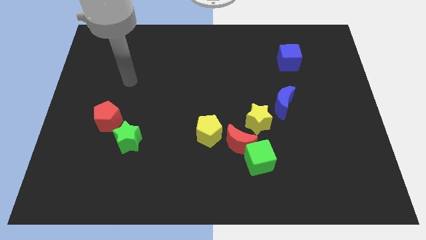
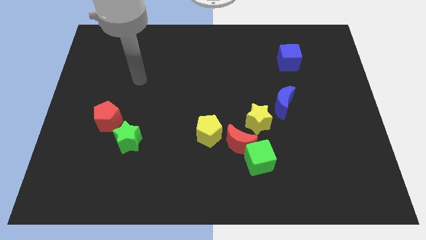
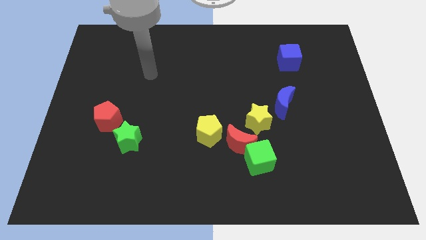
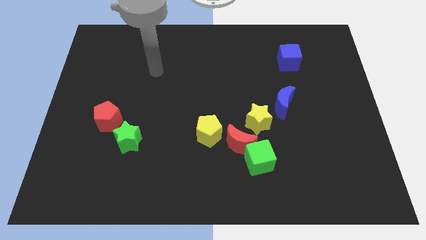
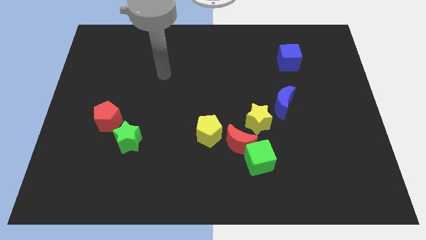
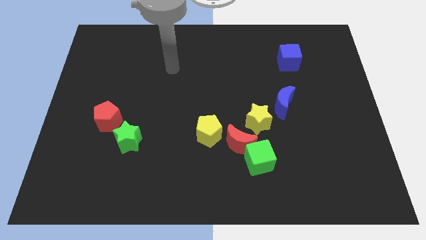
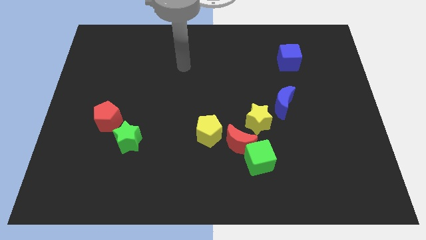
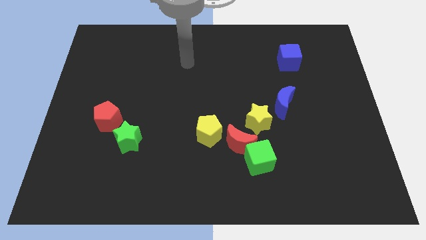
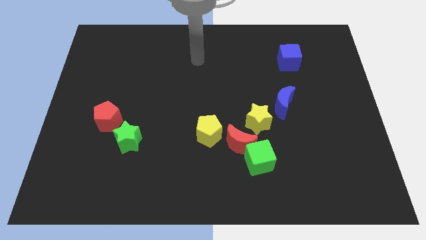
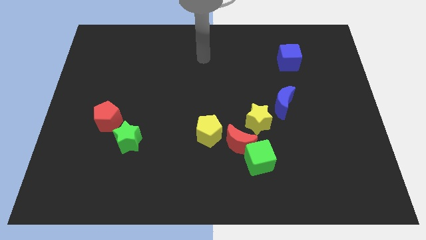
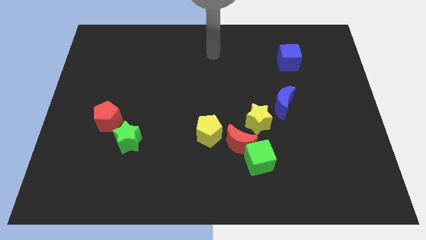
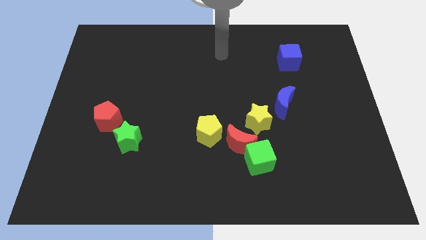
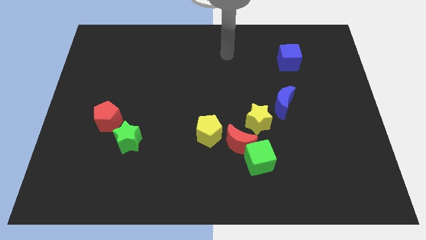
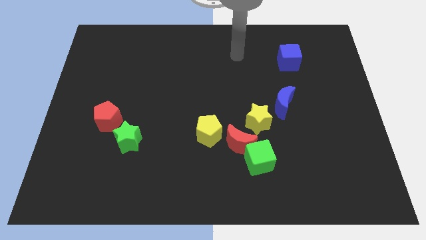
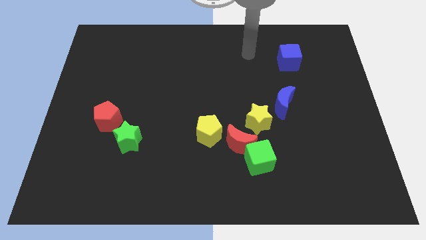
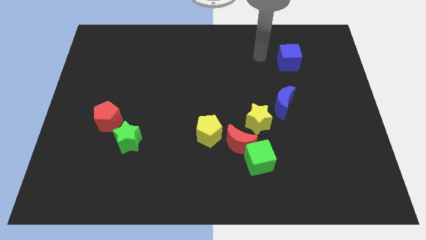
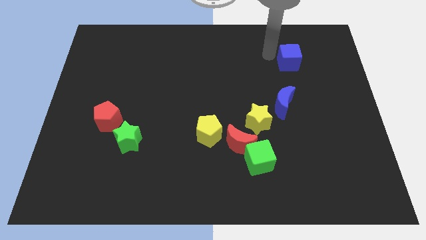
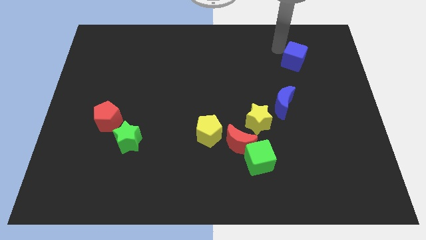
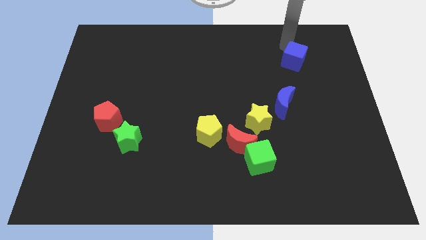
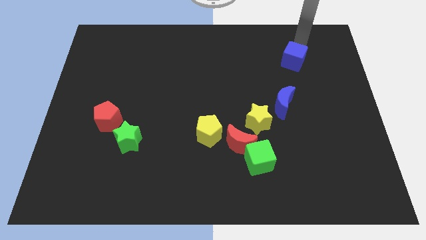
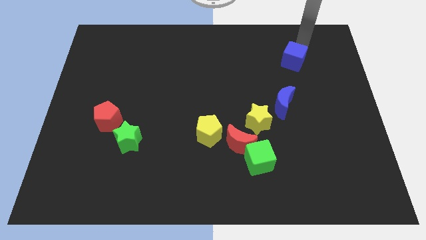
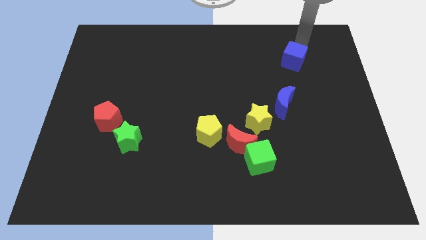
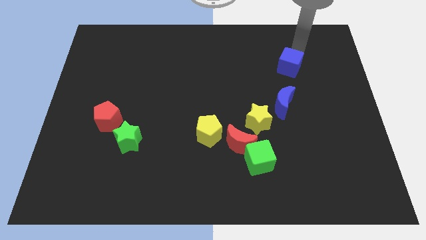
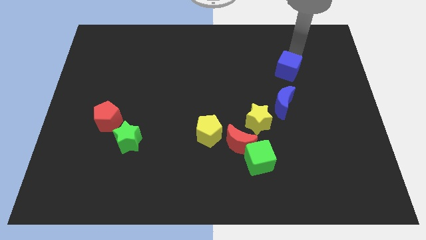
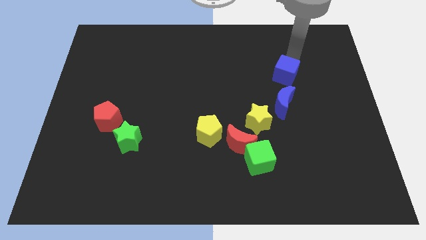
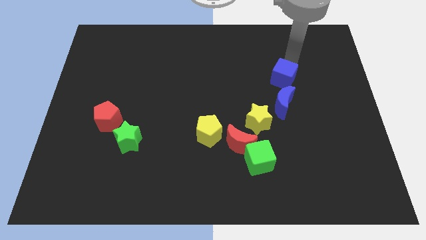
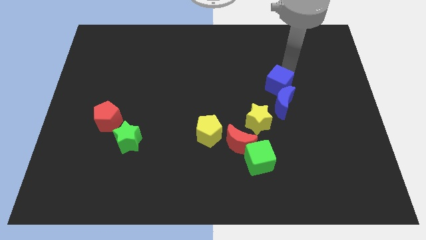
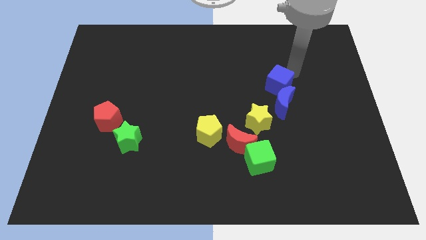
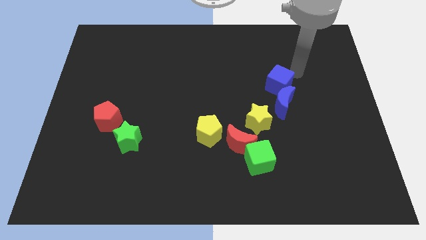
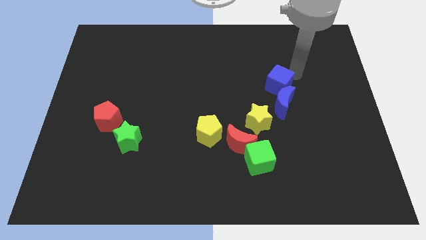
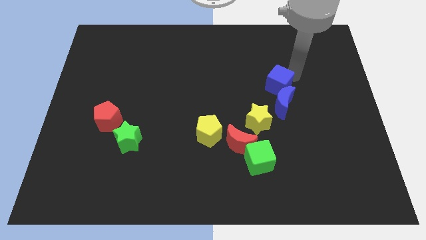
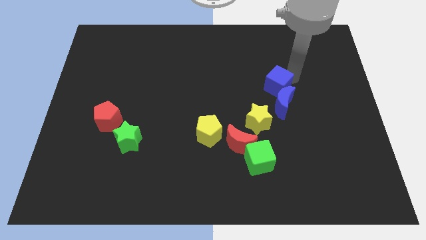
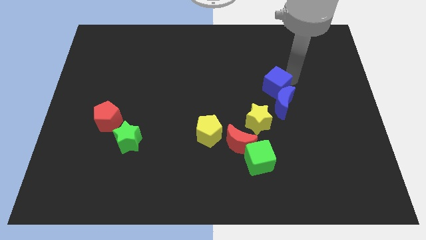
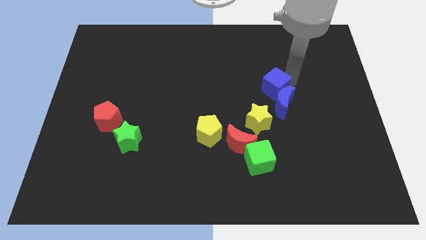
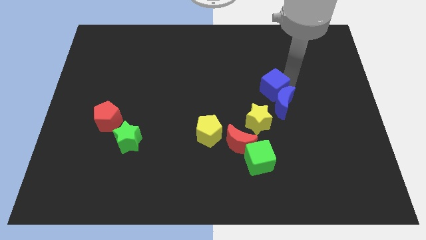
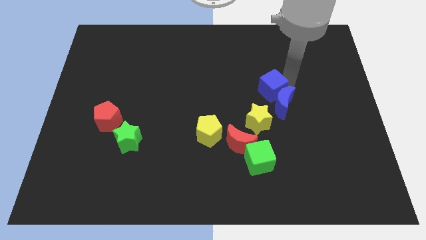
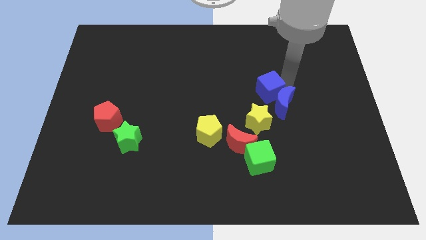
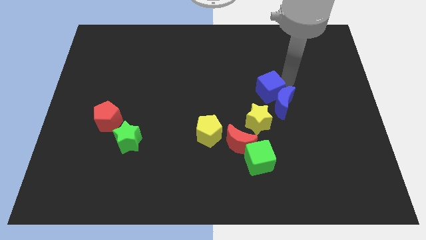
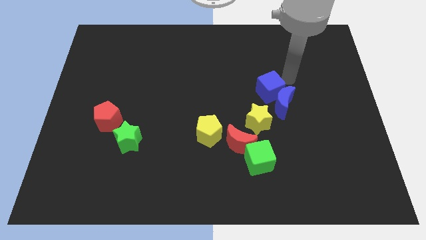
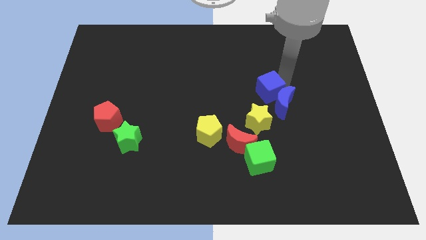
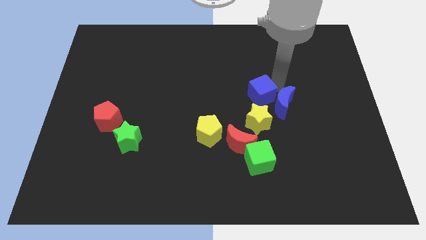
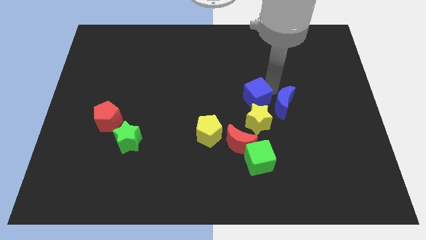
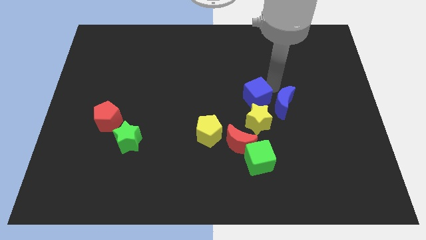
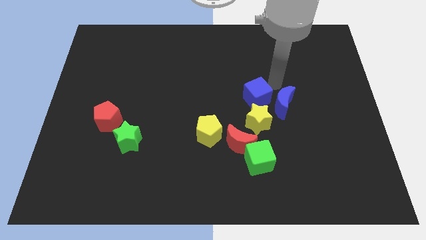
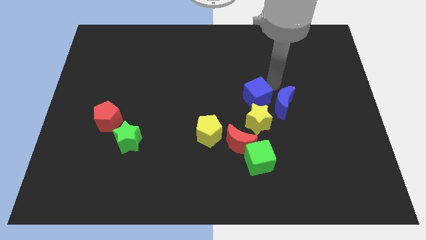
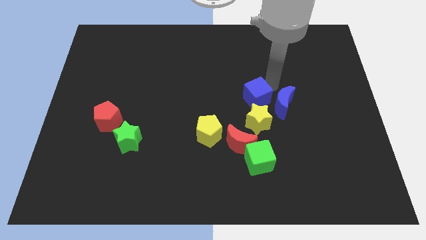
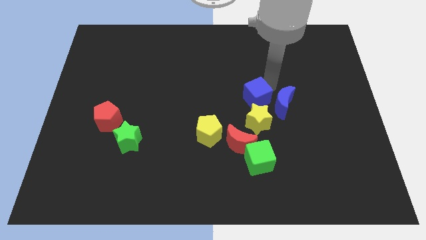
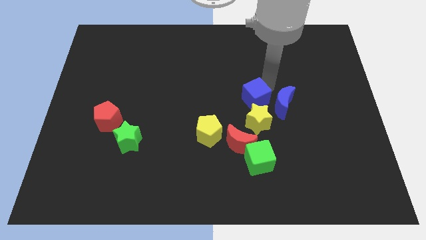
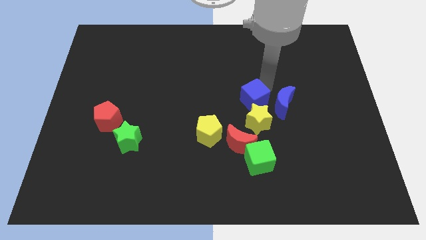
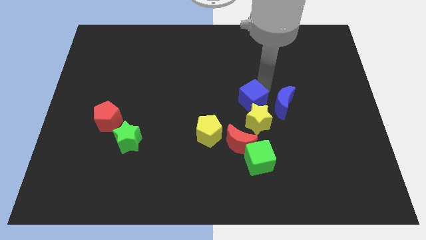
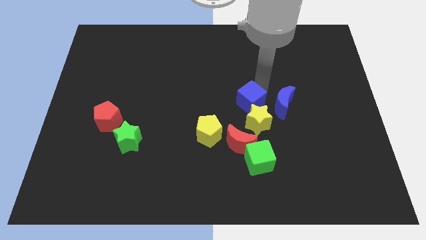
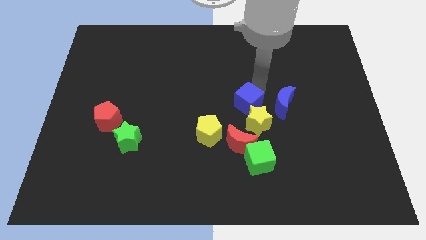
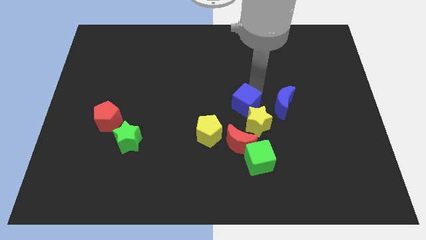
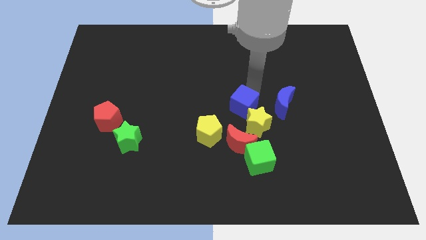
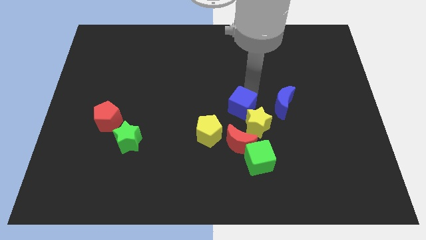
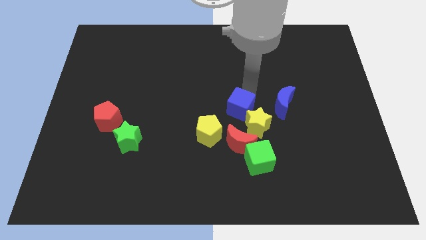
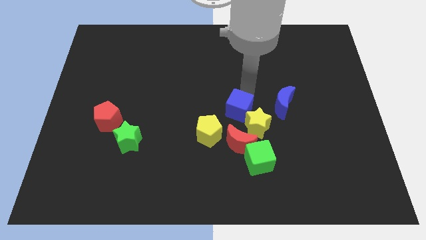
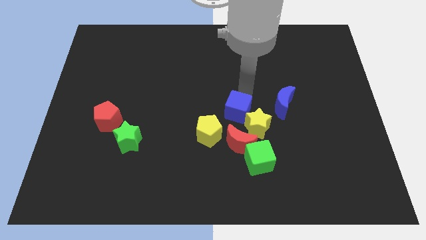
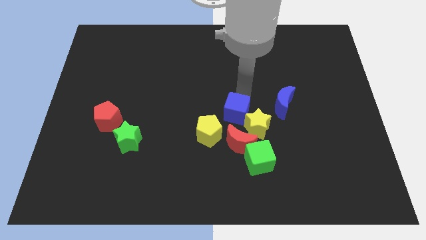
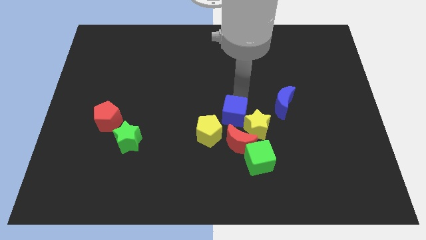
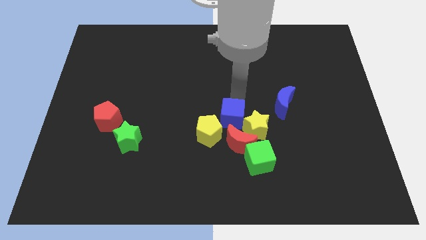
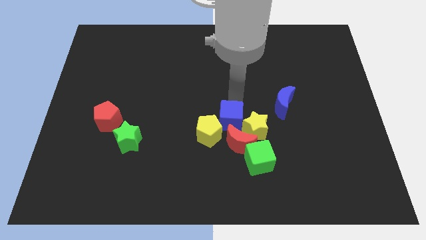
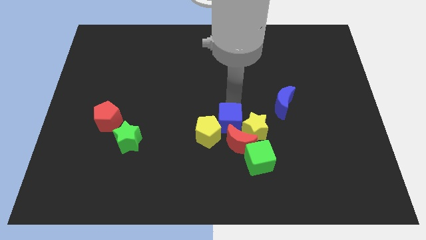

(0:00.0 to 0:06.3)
push the blue cube next to the red moon
